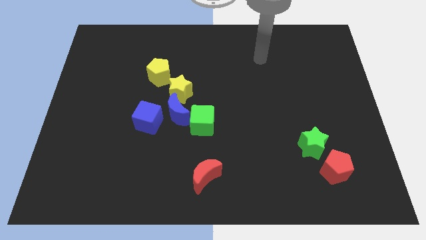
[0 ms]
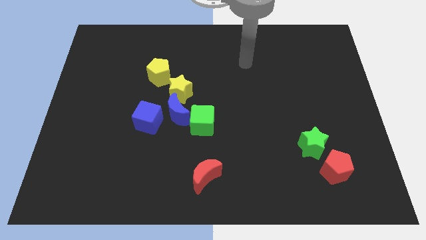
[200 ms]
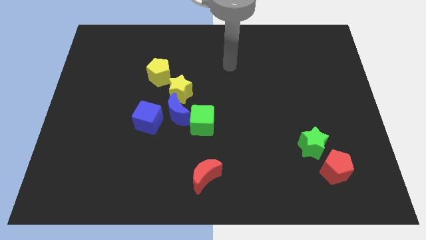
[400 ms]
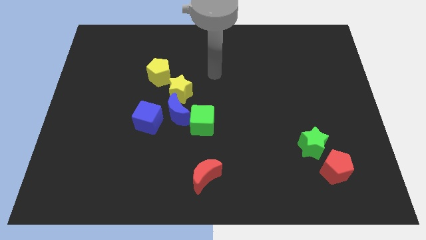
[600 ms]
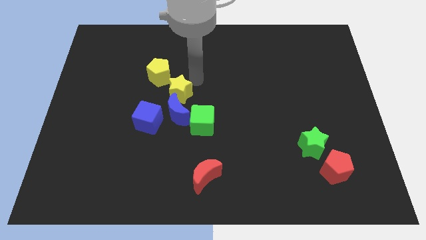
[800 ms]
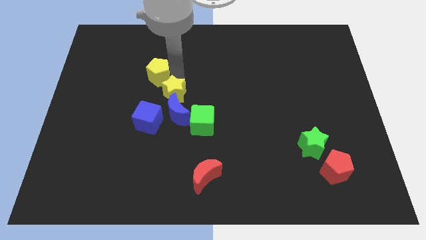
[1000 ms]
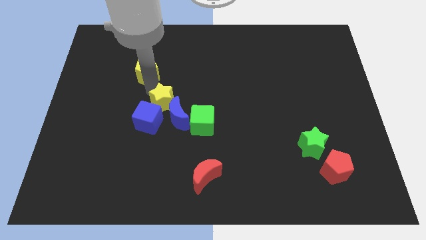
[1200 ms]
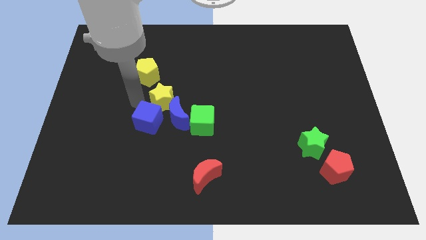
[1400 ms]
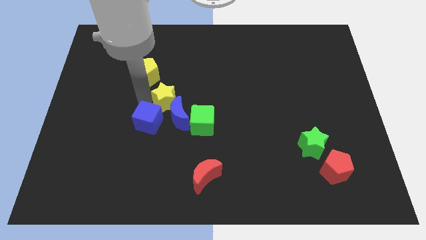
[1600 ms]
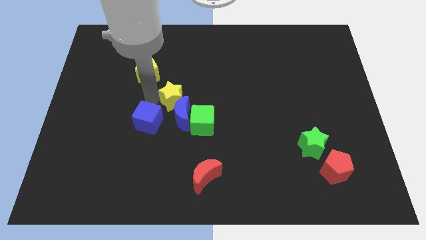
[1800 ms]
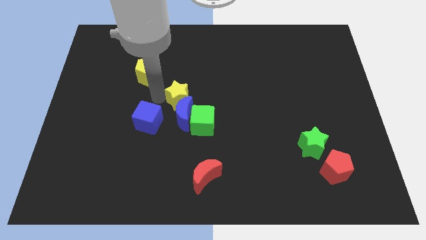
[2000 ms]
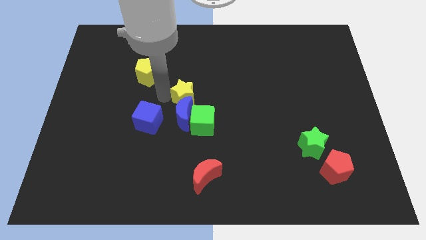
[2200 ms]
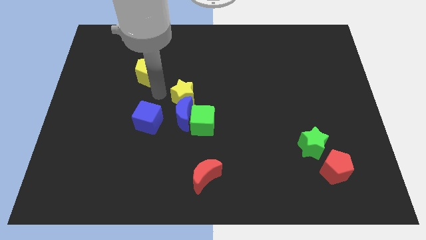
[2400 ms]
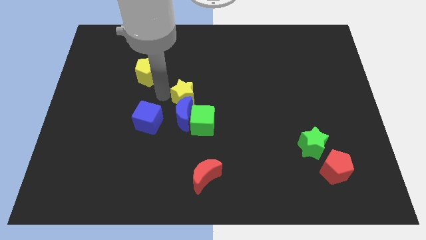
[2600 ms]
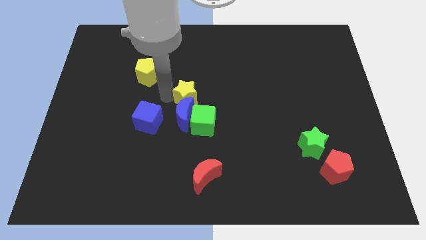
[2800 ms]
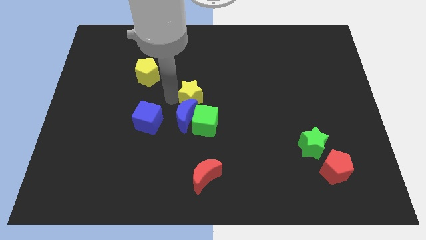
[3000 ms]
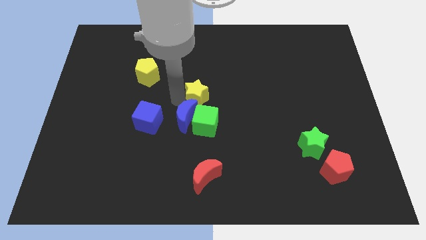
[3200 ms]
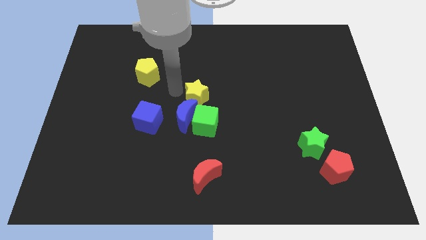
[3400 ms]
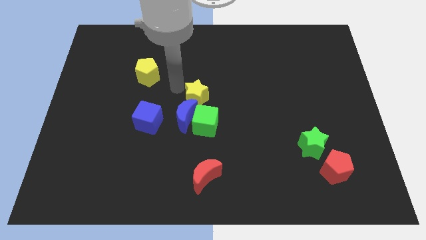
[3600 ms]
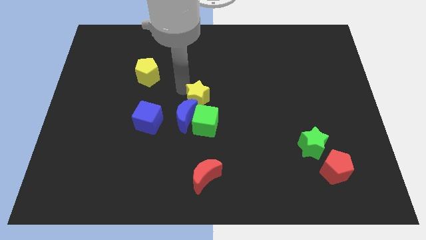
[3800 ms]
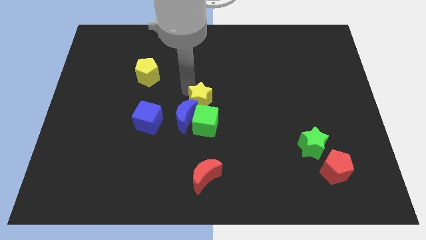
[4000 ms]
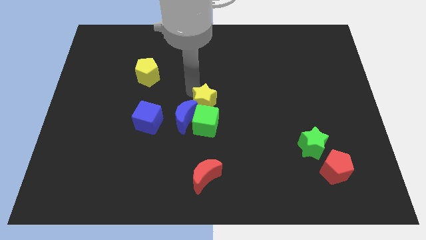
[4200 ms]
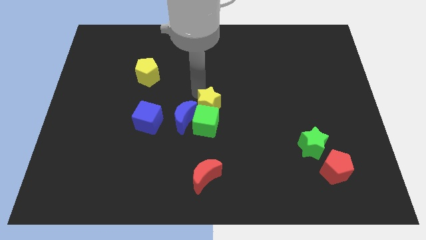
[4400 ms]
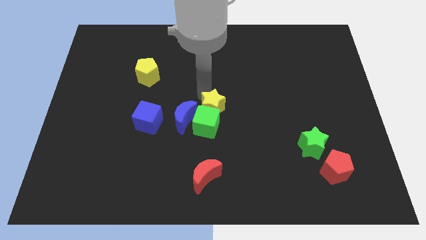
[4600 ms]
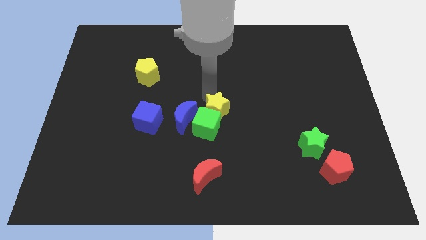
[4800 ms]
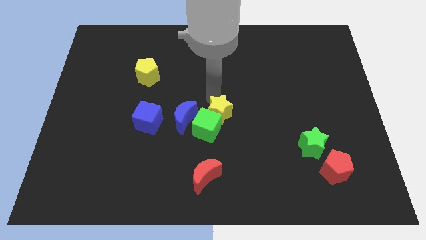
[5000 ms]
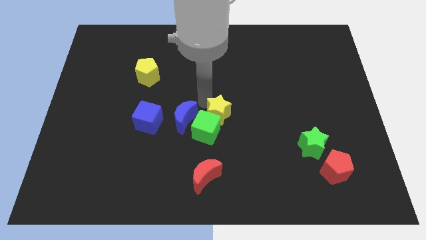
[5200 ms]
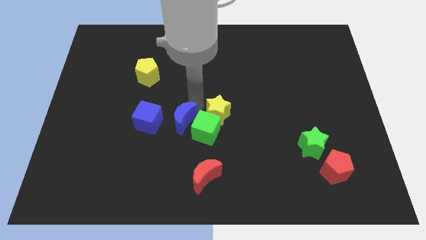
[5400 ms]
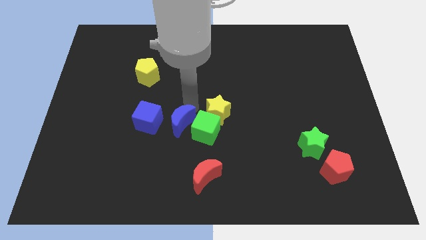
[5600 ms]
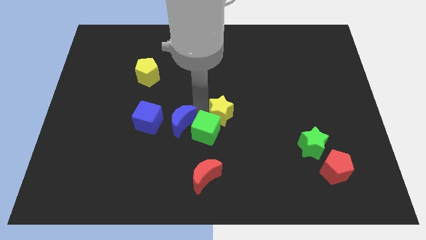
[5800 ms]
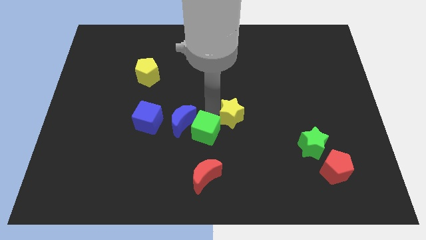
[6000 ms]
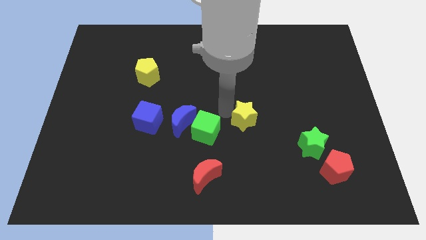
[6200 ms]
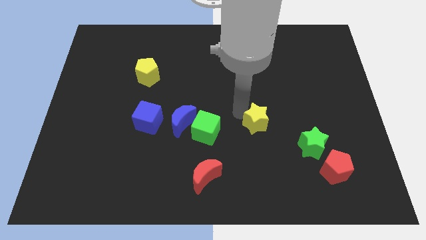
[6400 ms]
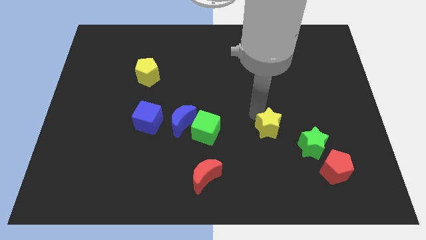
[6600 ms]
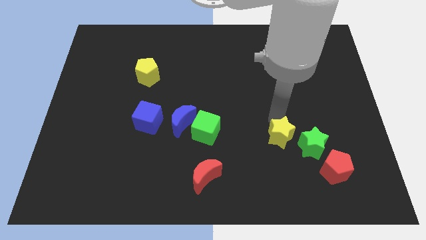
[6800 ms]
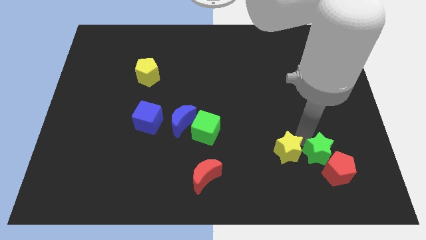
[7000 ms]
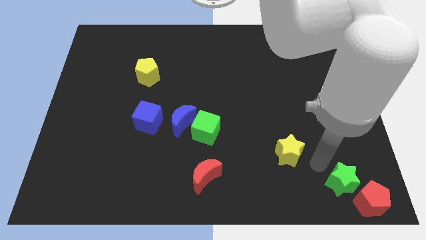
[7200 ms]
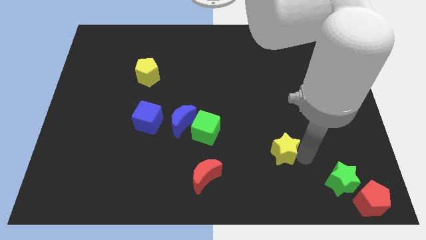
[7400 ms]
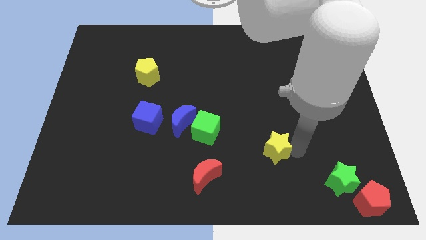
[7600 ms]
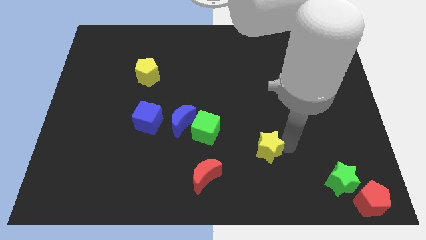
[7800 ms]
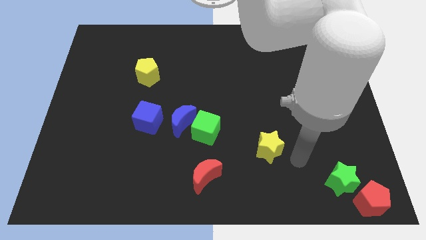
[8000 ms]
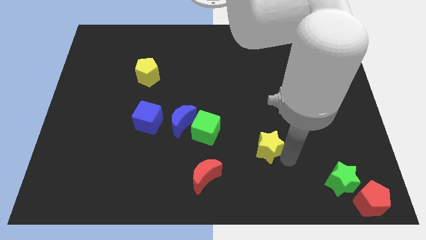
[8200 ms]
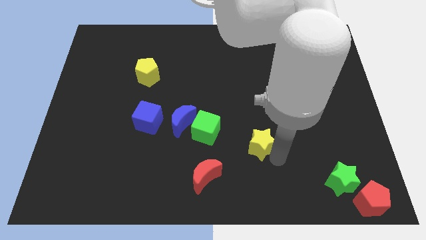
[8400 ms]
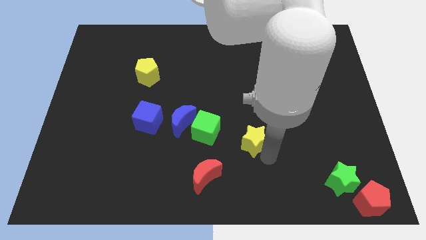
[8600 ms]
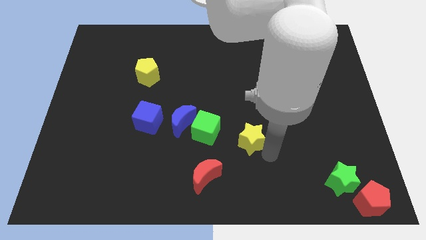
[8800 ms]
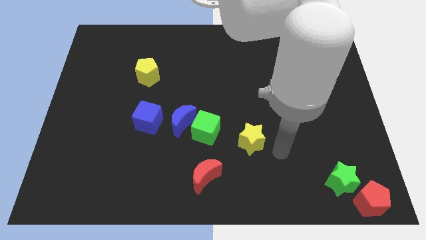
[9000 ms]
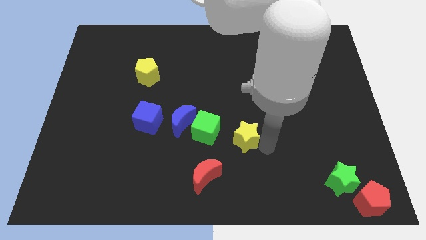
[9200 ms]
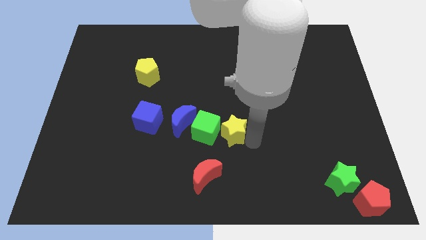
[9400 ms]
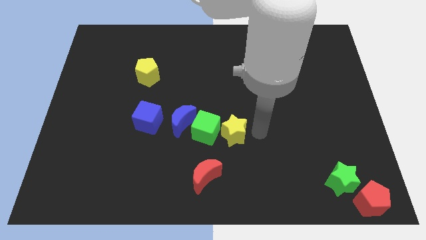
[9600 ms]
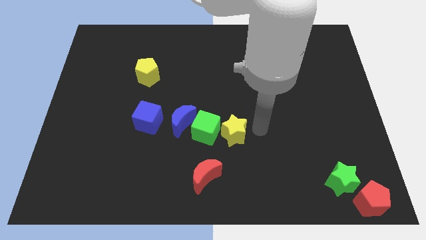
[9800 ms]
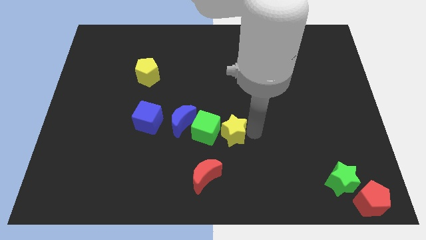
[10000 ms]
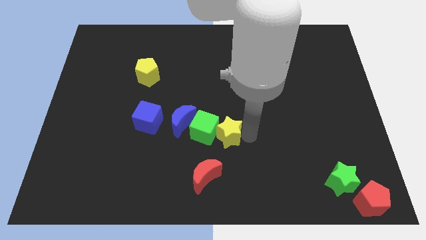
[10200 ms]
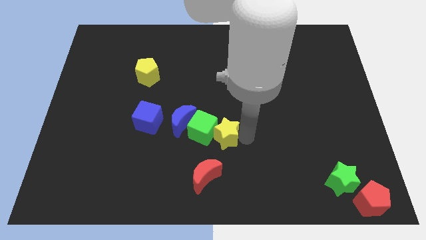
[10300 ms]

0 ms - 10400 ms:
put the yellow star diagonally down and to the right of the blue moon

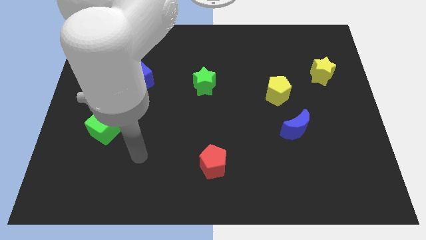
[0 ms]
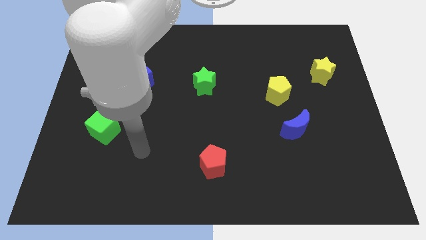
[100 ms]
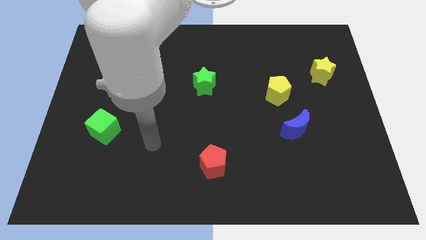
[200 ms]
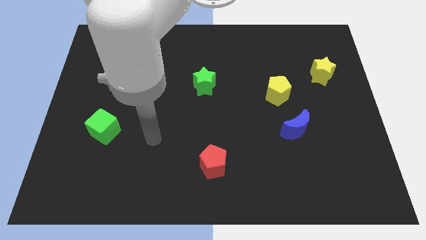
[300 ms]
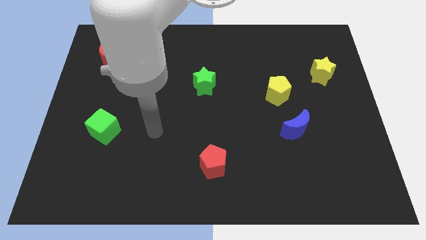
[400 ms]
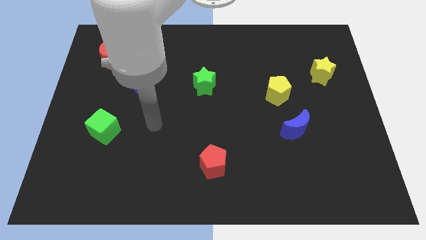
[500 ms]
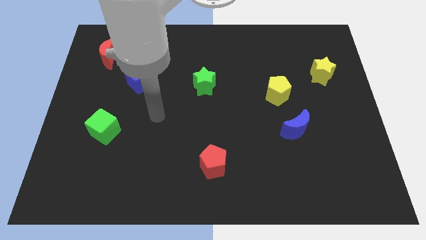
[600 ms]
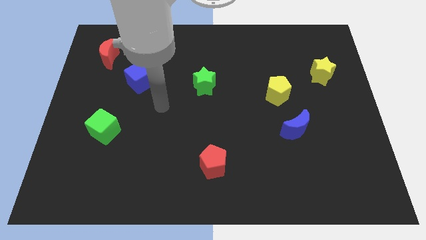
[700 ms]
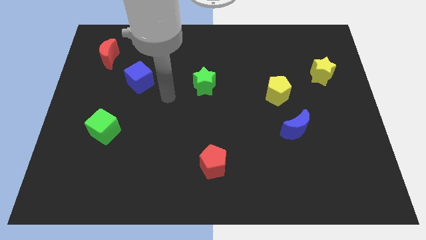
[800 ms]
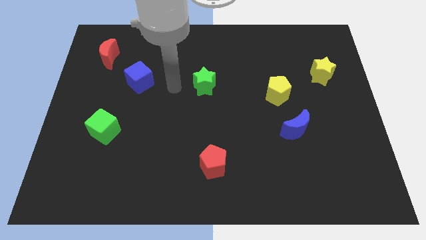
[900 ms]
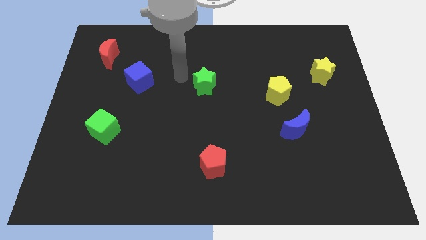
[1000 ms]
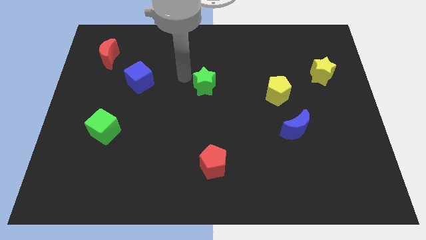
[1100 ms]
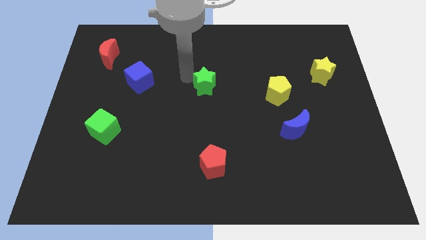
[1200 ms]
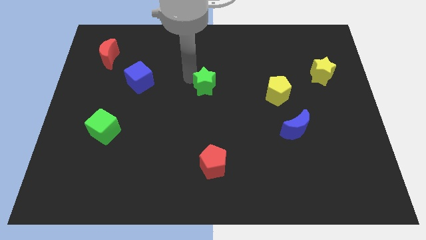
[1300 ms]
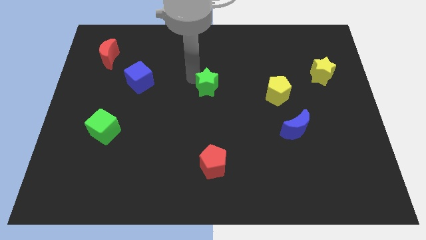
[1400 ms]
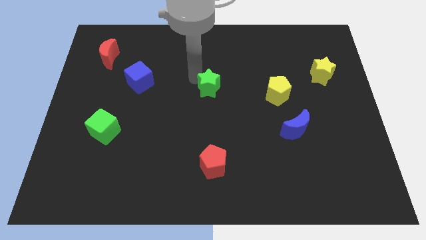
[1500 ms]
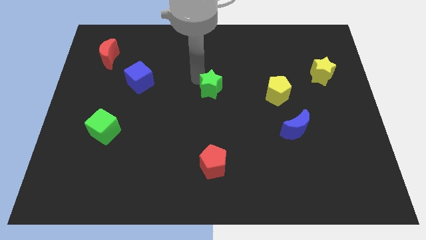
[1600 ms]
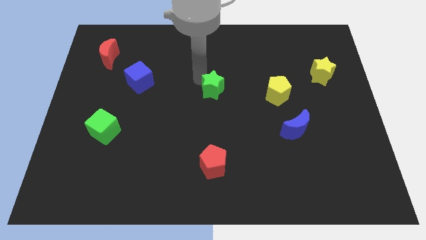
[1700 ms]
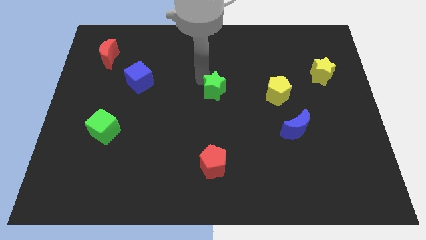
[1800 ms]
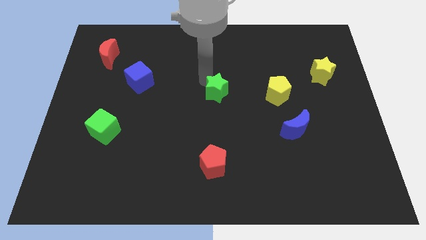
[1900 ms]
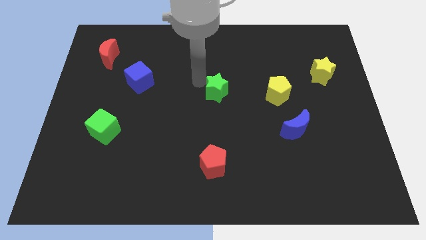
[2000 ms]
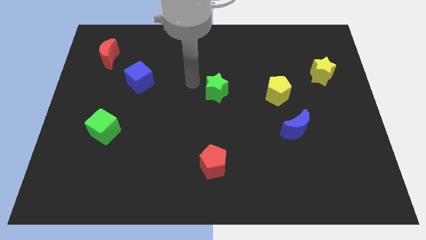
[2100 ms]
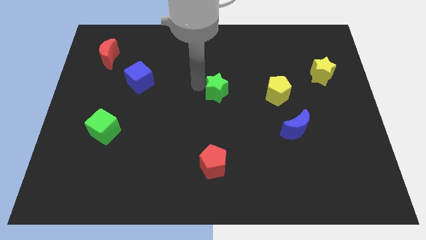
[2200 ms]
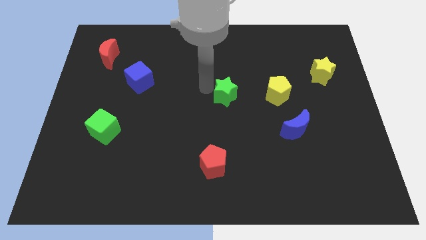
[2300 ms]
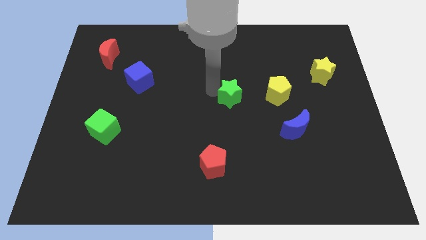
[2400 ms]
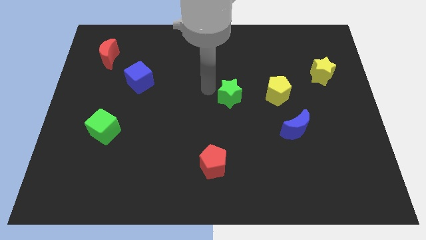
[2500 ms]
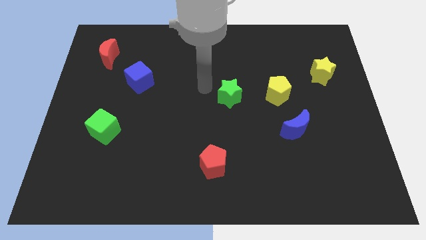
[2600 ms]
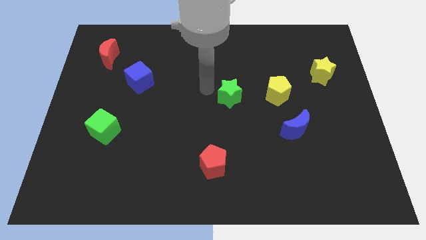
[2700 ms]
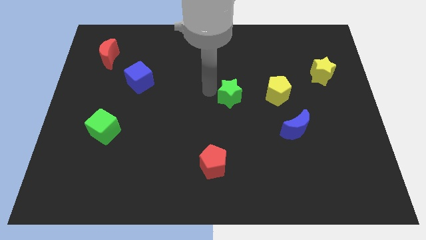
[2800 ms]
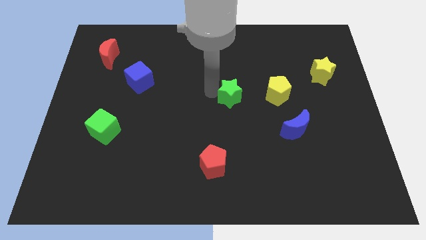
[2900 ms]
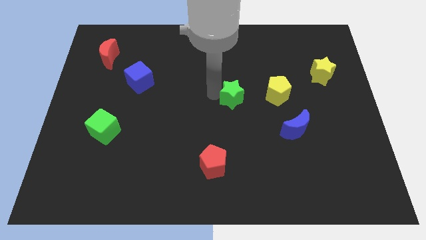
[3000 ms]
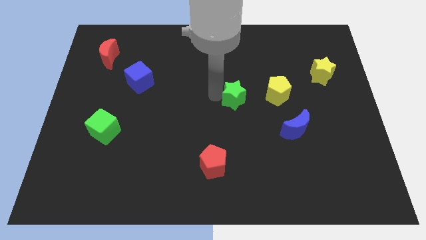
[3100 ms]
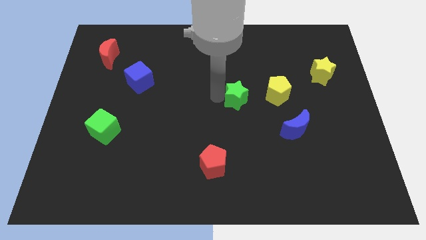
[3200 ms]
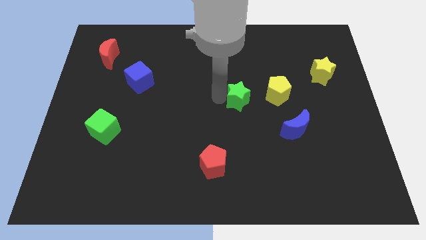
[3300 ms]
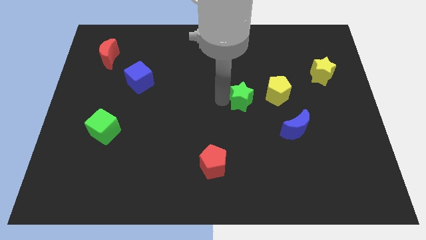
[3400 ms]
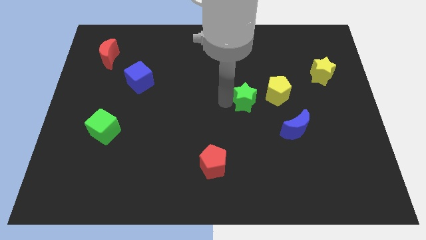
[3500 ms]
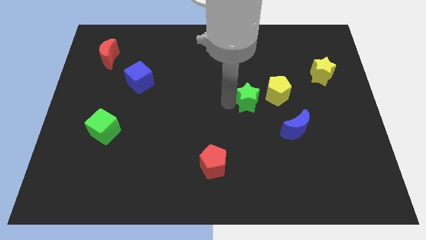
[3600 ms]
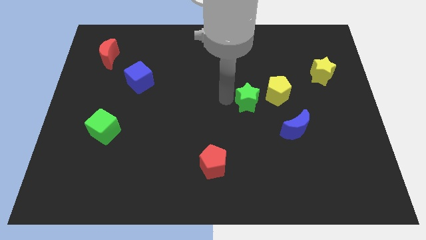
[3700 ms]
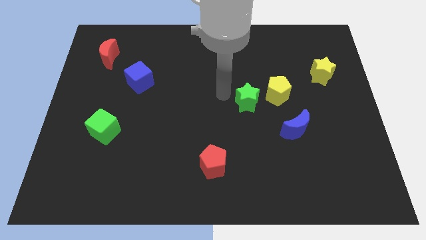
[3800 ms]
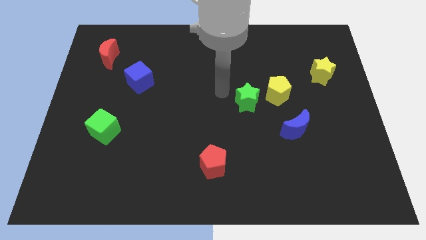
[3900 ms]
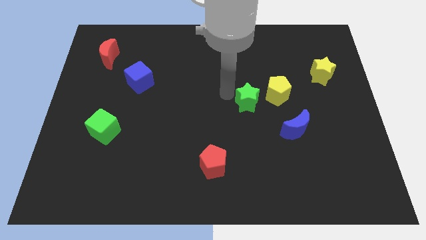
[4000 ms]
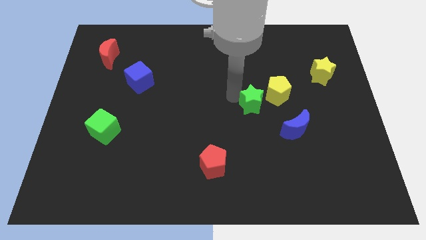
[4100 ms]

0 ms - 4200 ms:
slide the green star diagonally up and to the left of the blue moon
